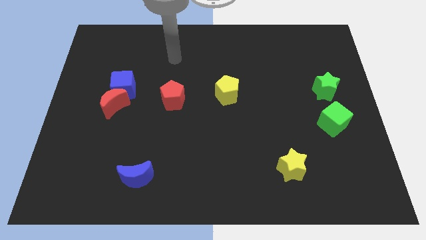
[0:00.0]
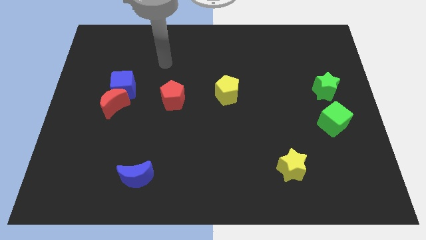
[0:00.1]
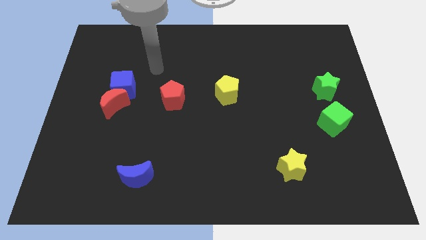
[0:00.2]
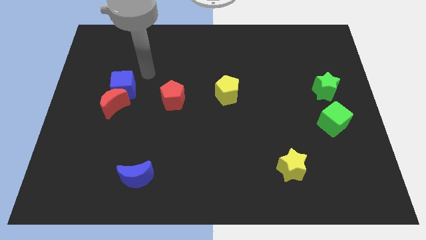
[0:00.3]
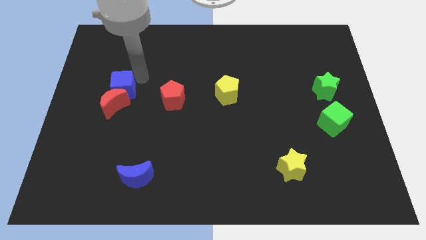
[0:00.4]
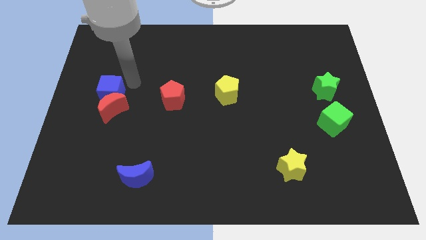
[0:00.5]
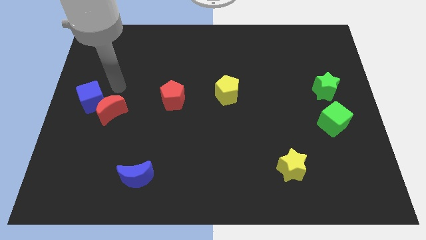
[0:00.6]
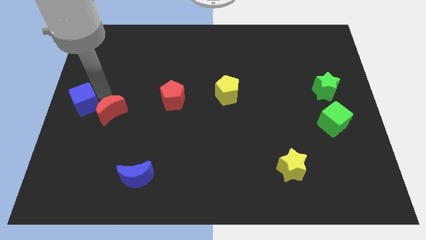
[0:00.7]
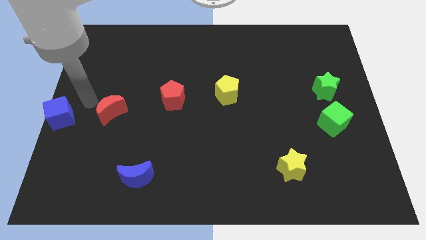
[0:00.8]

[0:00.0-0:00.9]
pull the red moon apart from the blue cube

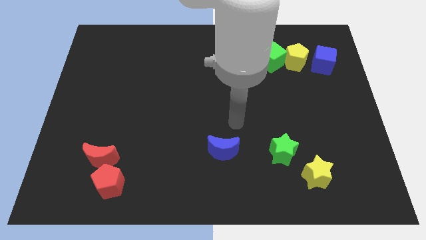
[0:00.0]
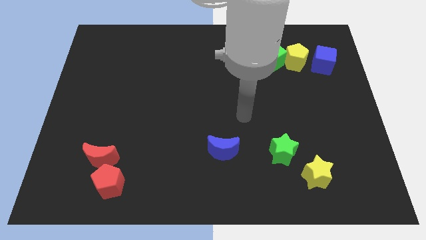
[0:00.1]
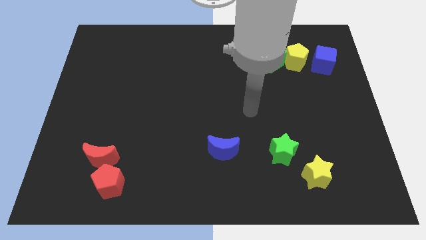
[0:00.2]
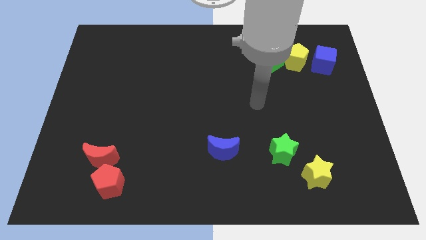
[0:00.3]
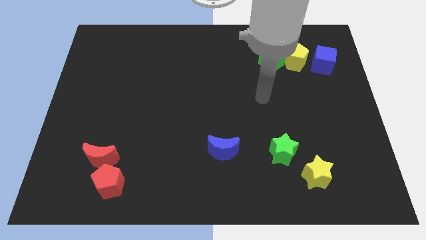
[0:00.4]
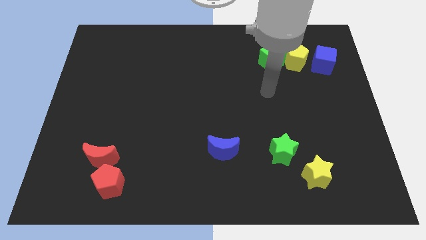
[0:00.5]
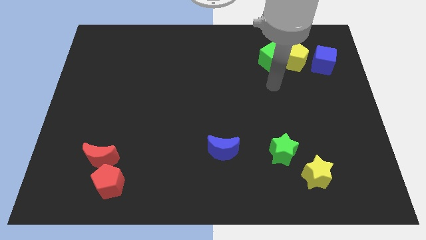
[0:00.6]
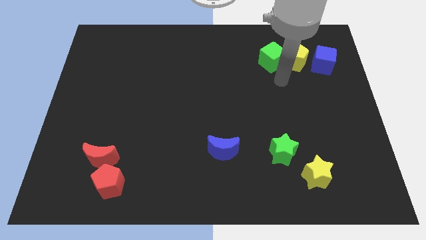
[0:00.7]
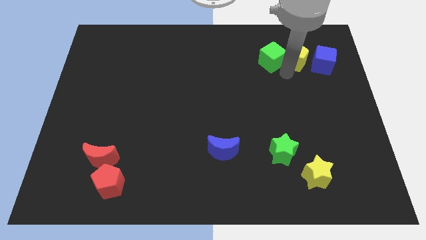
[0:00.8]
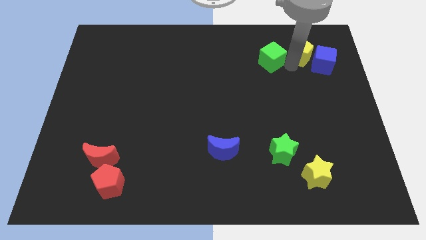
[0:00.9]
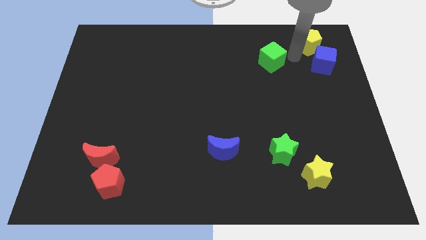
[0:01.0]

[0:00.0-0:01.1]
pull the green cube apart from the yellow pentagon

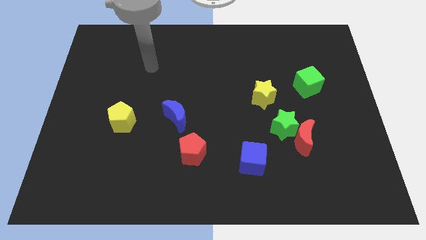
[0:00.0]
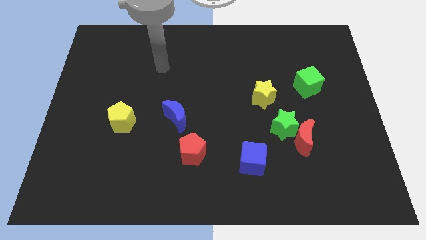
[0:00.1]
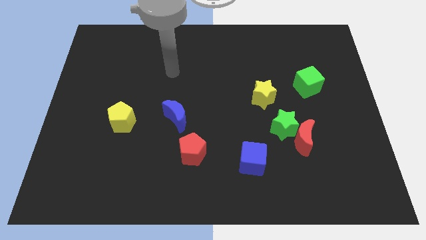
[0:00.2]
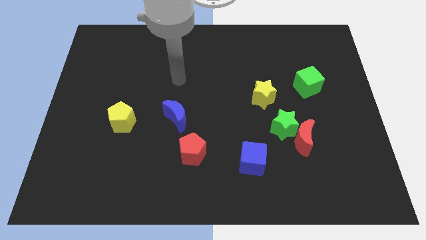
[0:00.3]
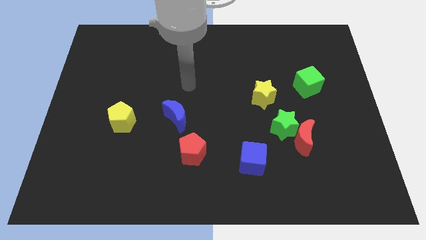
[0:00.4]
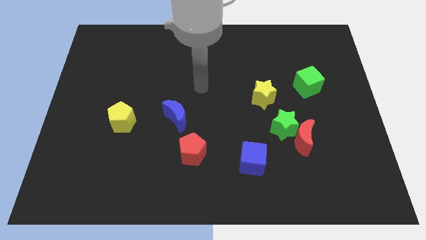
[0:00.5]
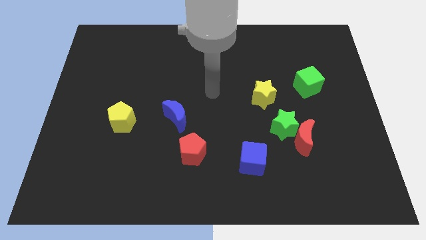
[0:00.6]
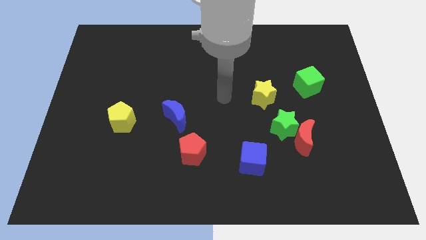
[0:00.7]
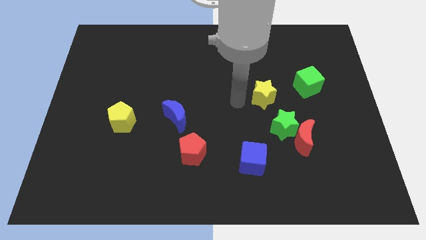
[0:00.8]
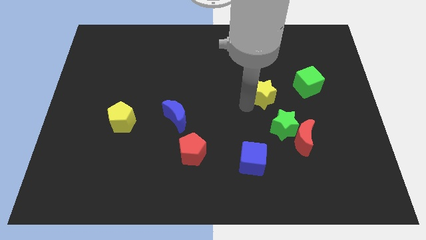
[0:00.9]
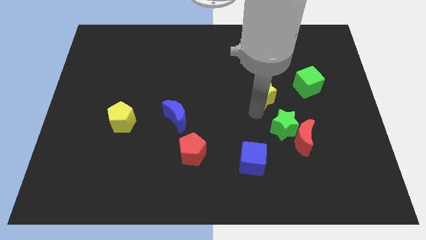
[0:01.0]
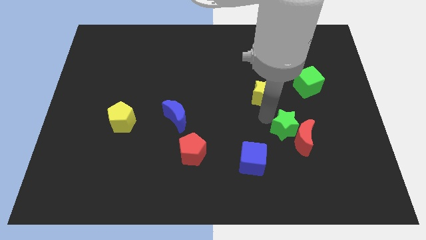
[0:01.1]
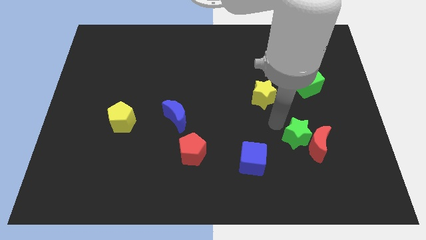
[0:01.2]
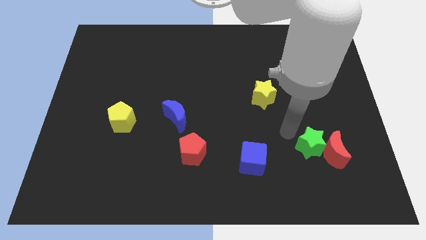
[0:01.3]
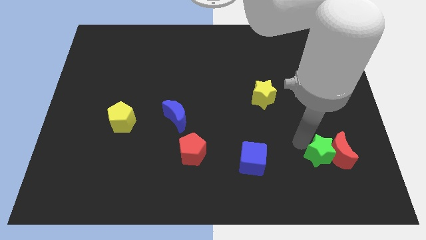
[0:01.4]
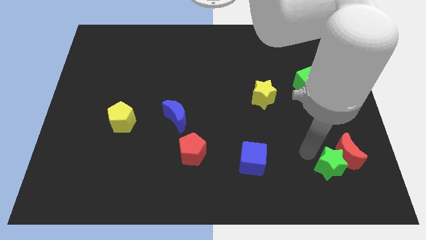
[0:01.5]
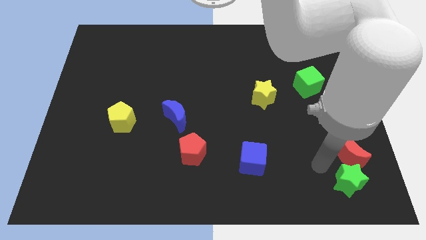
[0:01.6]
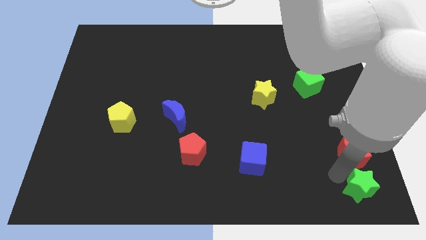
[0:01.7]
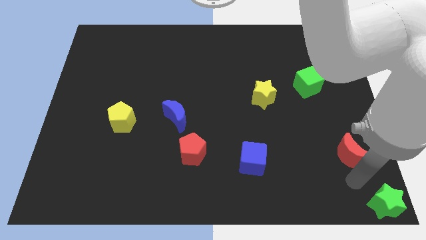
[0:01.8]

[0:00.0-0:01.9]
move the red moon away from the green star

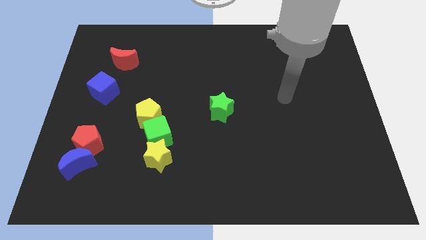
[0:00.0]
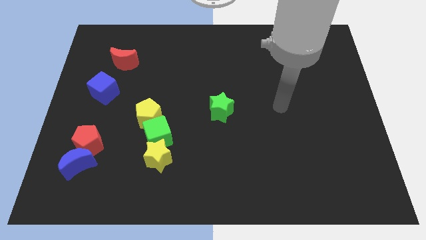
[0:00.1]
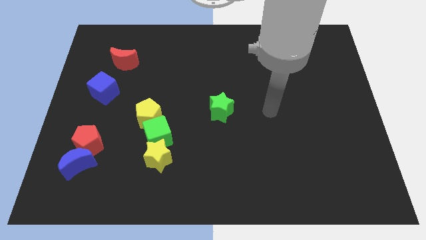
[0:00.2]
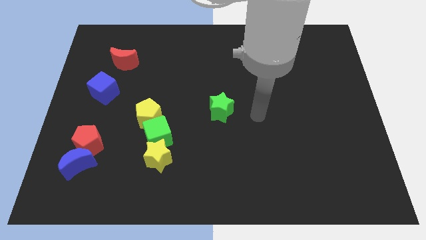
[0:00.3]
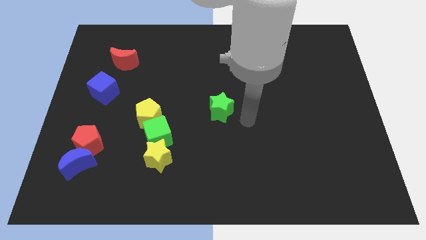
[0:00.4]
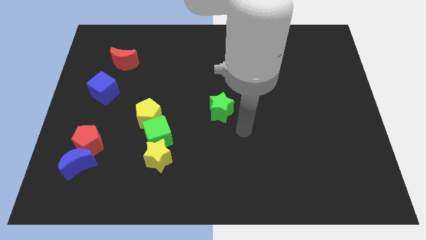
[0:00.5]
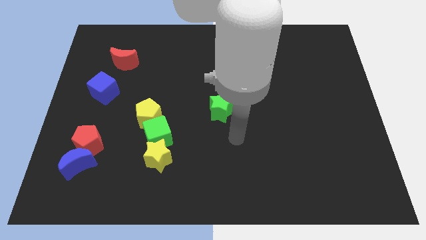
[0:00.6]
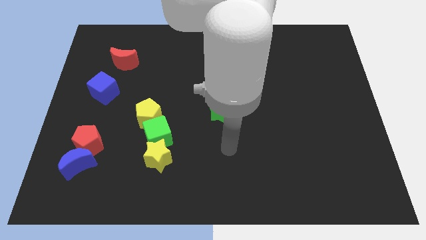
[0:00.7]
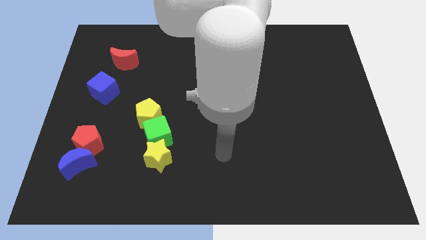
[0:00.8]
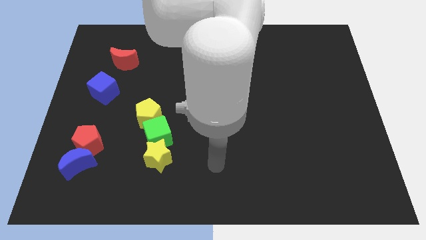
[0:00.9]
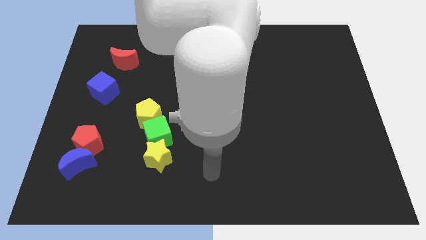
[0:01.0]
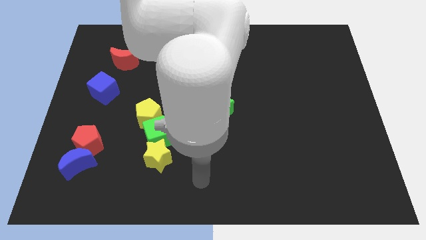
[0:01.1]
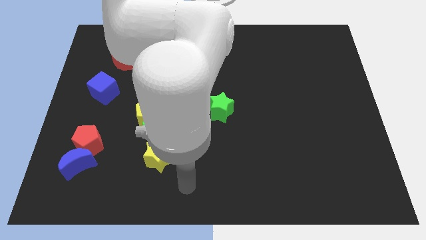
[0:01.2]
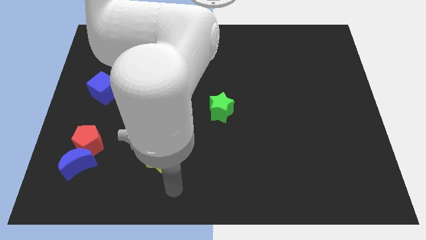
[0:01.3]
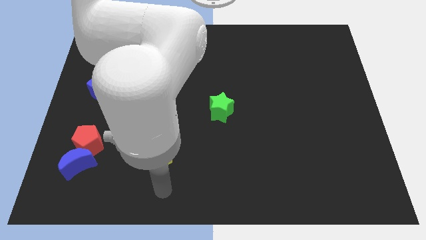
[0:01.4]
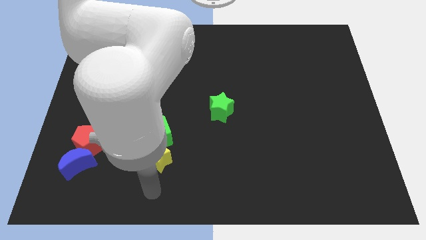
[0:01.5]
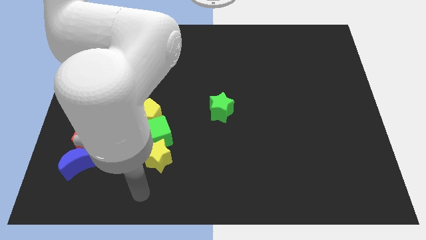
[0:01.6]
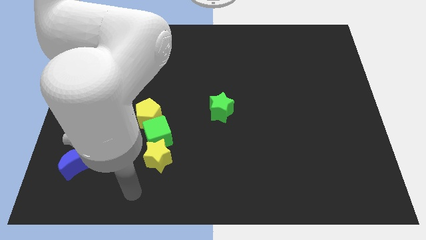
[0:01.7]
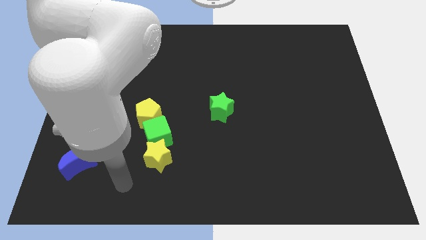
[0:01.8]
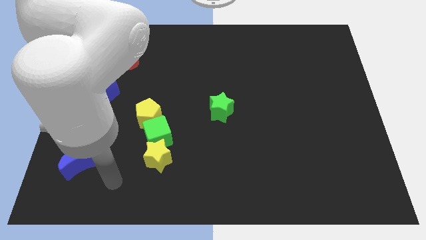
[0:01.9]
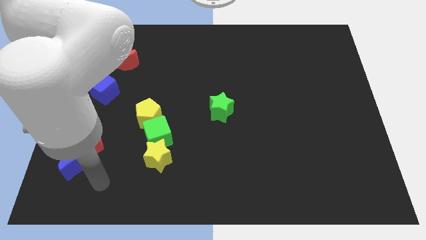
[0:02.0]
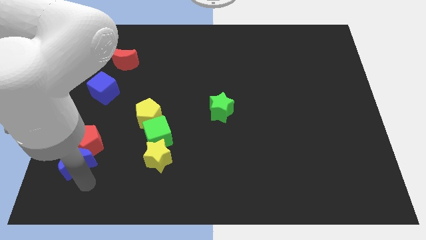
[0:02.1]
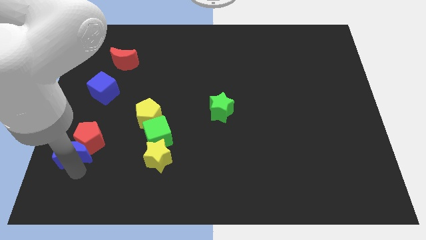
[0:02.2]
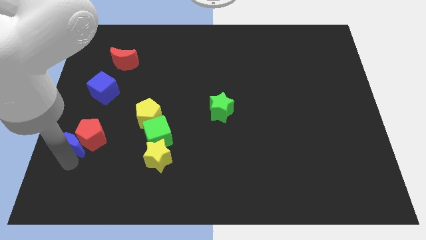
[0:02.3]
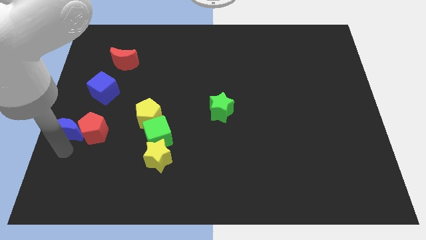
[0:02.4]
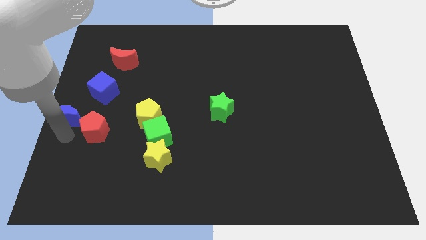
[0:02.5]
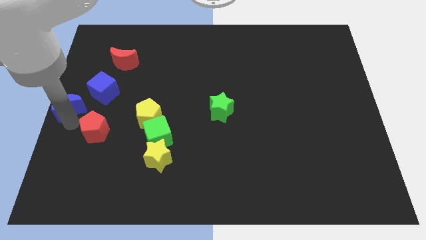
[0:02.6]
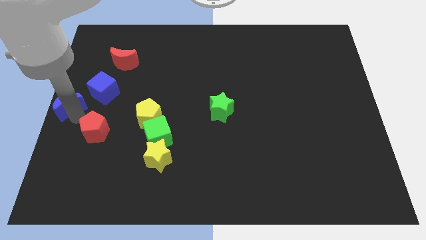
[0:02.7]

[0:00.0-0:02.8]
move the red pentagon away from the blue moon

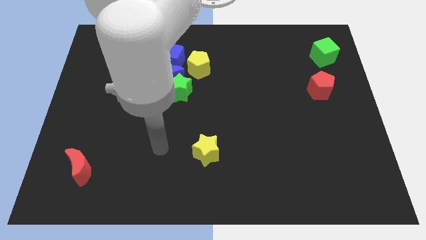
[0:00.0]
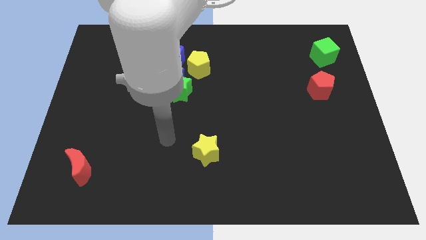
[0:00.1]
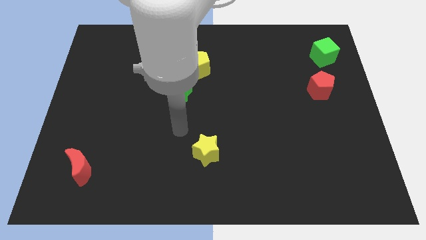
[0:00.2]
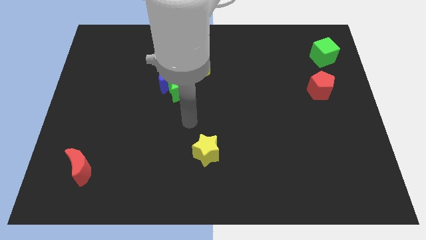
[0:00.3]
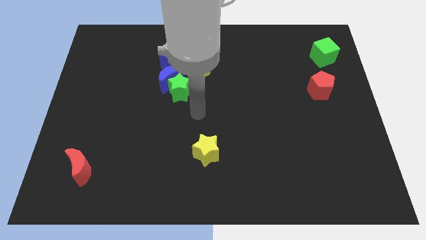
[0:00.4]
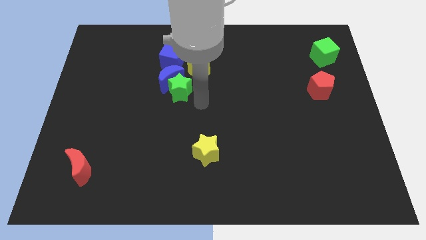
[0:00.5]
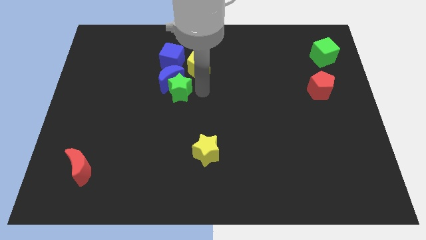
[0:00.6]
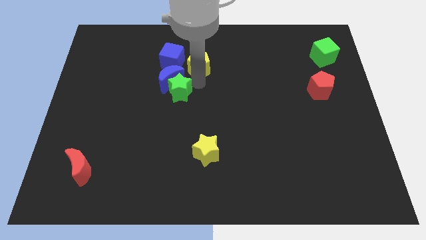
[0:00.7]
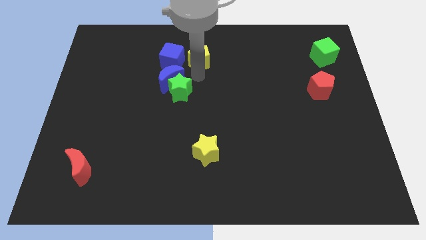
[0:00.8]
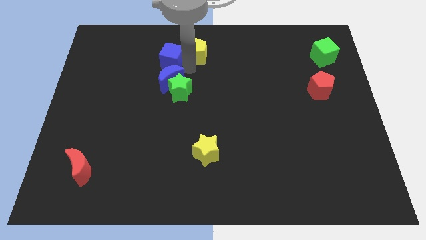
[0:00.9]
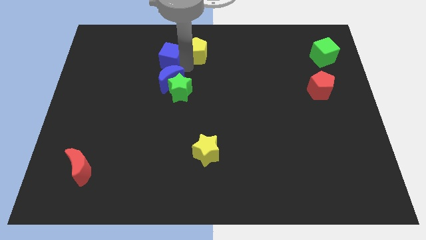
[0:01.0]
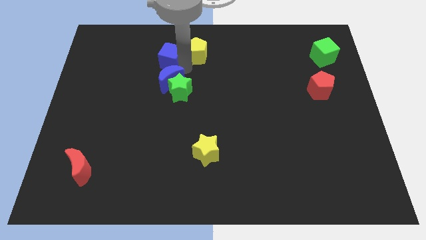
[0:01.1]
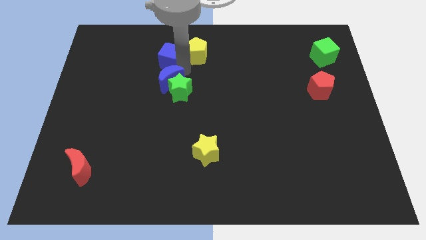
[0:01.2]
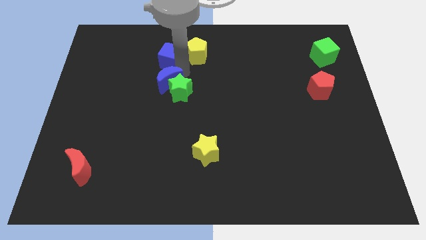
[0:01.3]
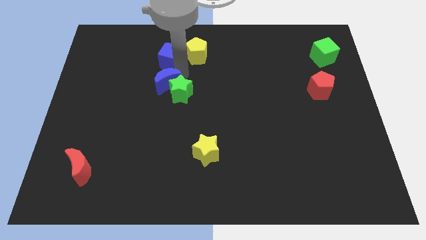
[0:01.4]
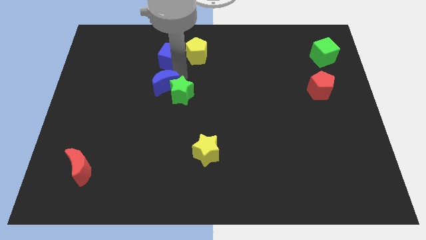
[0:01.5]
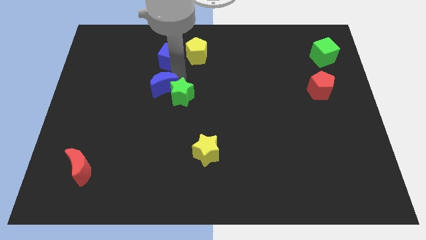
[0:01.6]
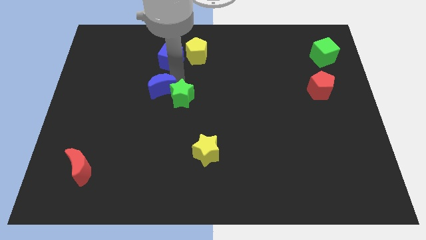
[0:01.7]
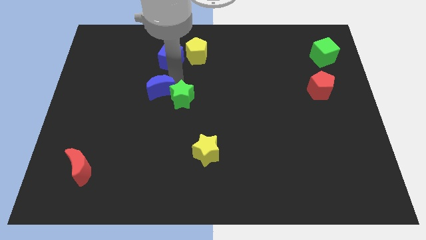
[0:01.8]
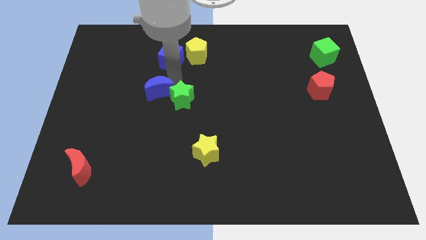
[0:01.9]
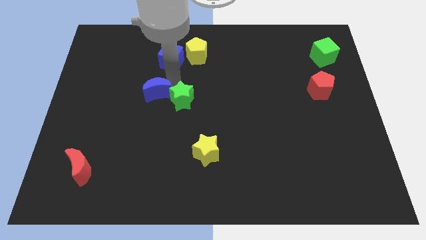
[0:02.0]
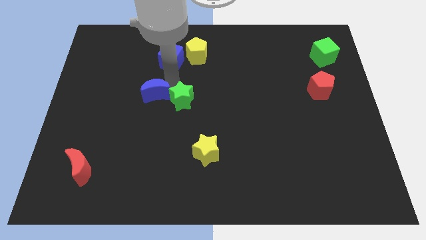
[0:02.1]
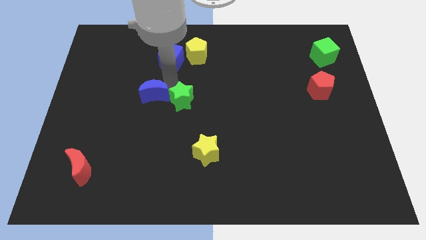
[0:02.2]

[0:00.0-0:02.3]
move the blue moon away from the green star, blue cube, and yellow pentagon

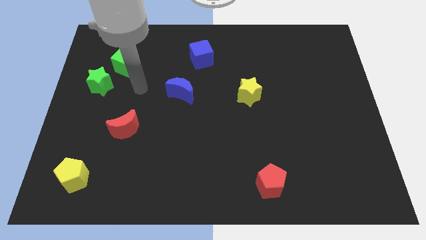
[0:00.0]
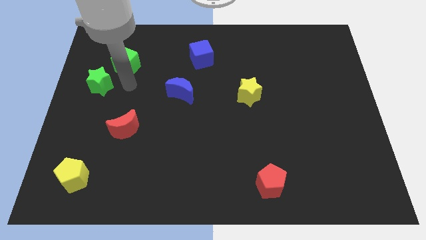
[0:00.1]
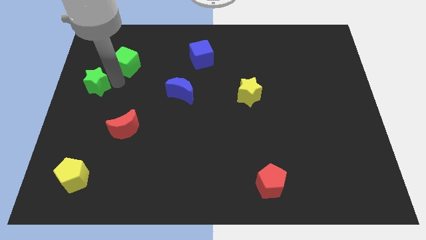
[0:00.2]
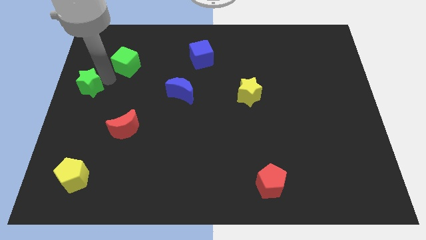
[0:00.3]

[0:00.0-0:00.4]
move the green cube away from the green star
